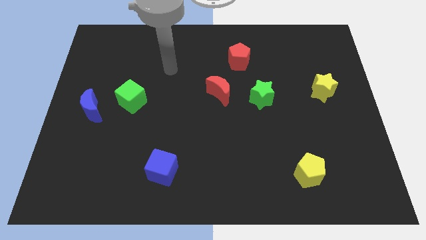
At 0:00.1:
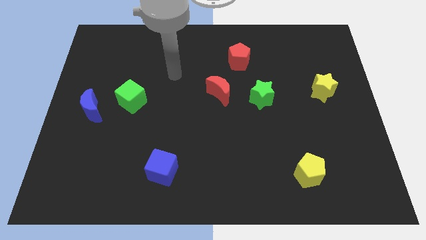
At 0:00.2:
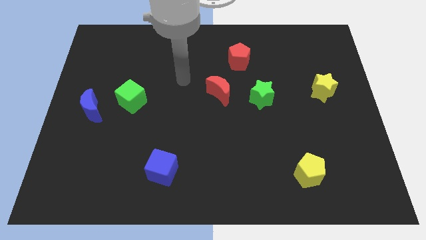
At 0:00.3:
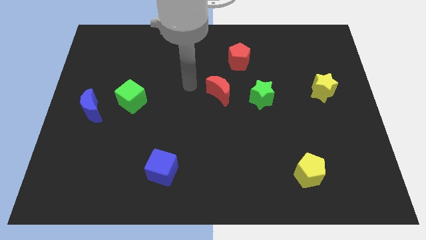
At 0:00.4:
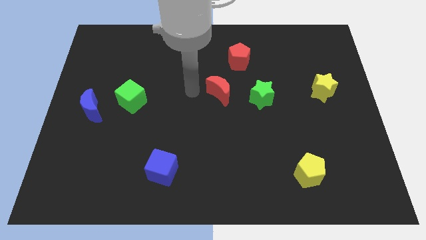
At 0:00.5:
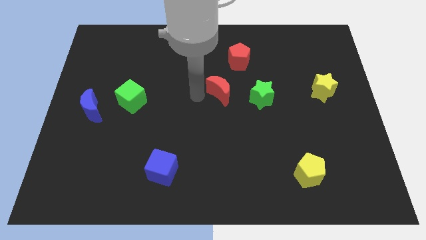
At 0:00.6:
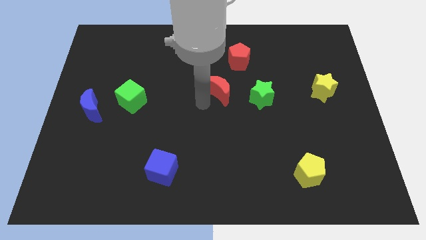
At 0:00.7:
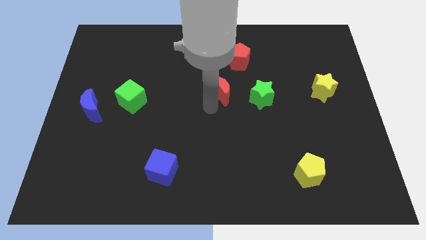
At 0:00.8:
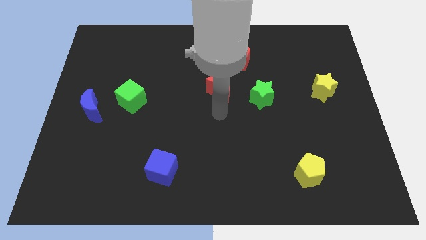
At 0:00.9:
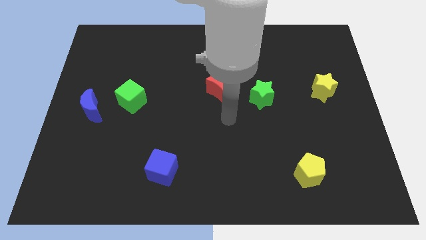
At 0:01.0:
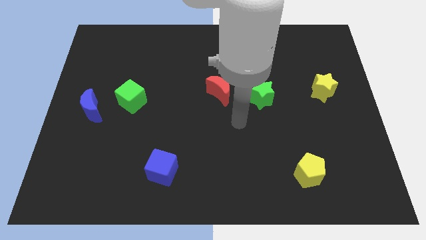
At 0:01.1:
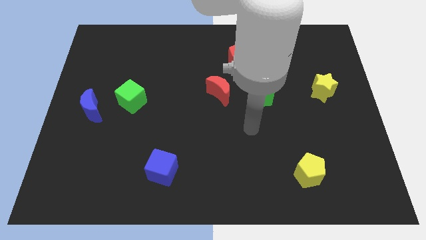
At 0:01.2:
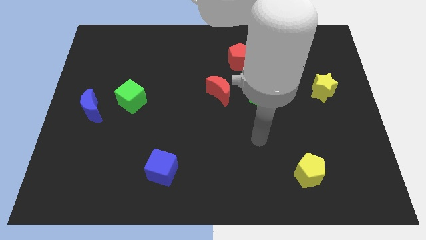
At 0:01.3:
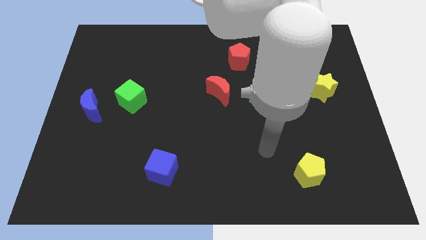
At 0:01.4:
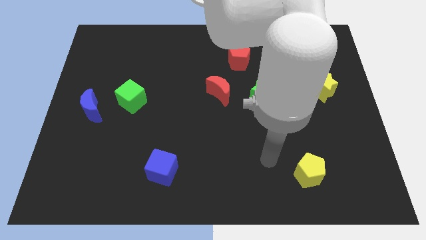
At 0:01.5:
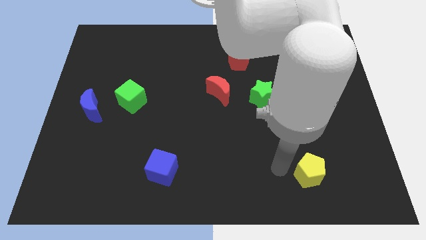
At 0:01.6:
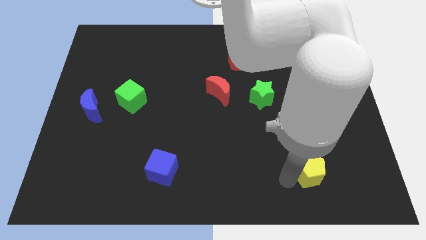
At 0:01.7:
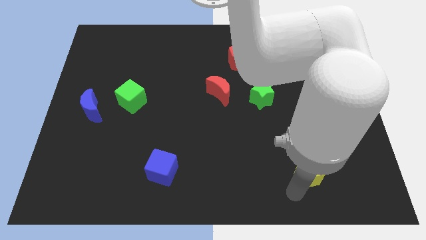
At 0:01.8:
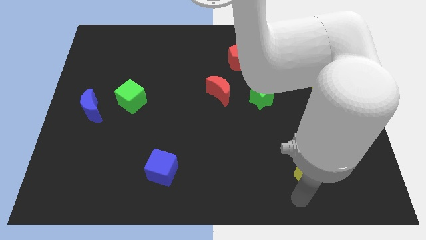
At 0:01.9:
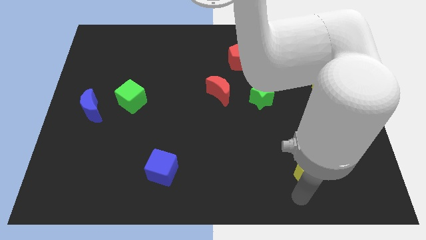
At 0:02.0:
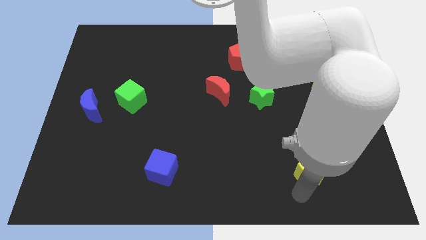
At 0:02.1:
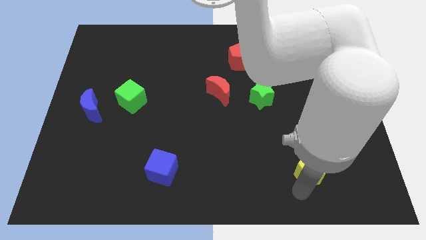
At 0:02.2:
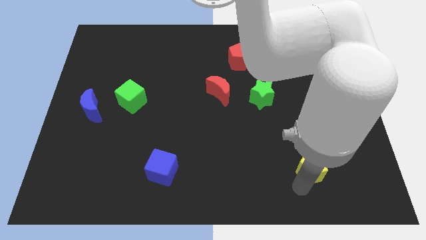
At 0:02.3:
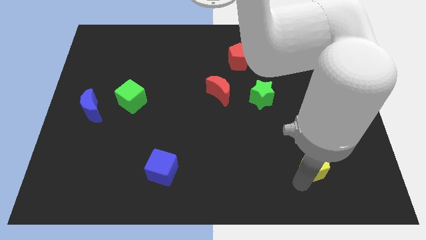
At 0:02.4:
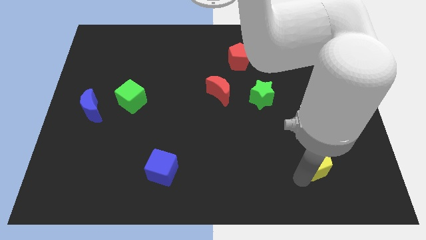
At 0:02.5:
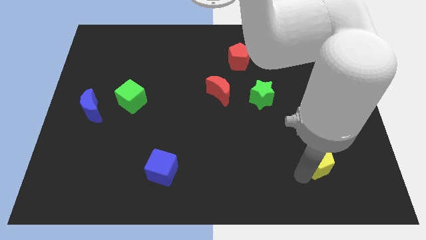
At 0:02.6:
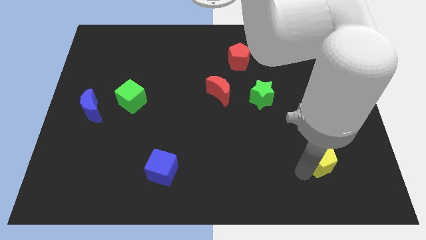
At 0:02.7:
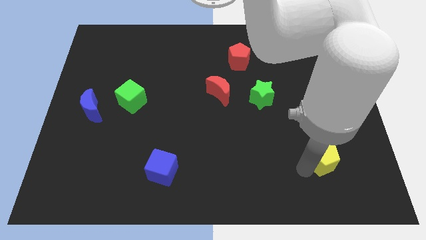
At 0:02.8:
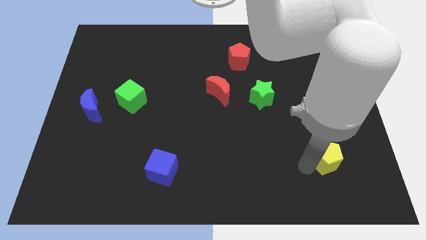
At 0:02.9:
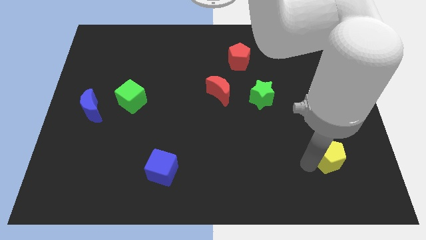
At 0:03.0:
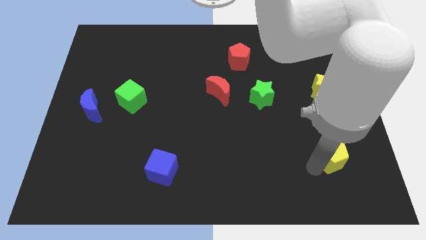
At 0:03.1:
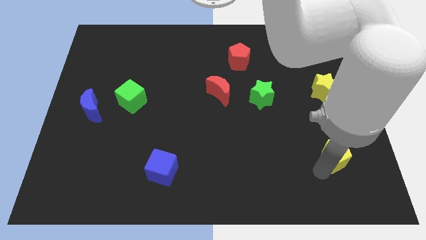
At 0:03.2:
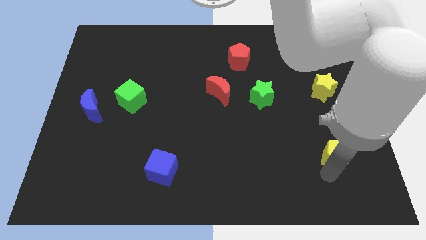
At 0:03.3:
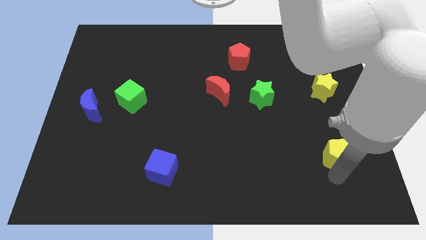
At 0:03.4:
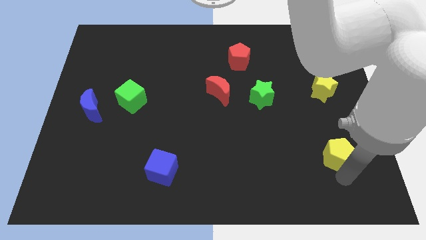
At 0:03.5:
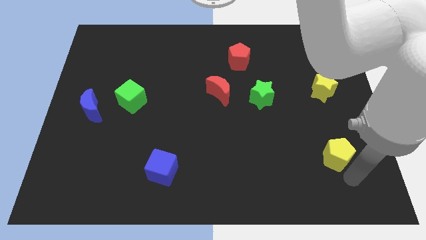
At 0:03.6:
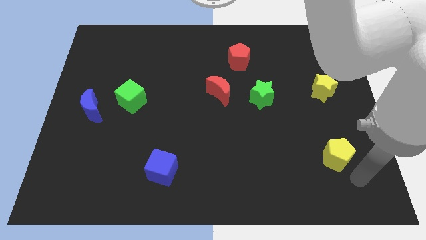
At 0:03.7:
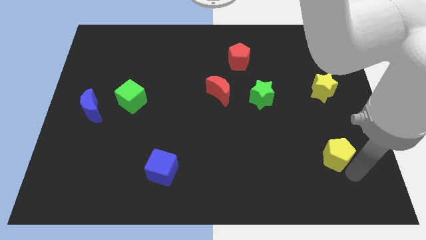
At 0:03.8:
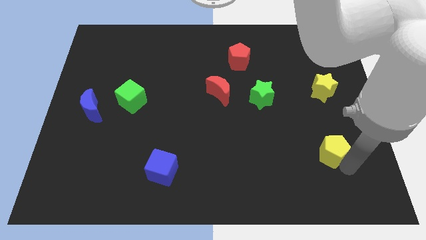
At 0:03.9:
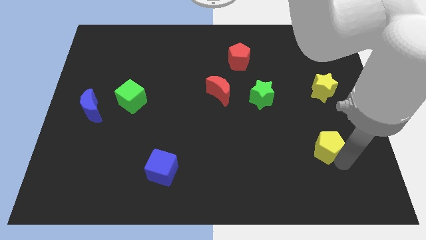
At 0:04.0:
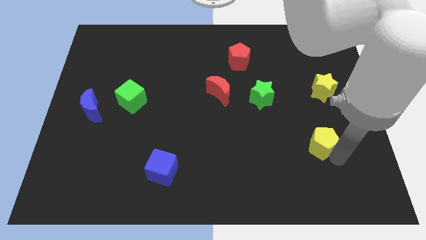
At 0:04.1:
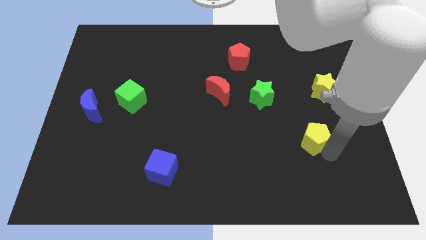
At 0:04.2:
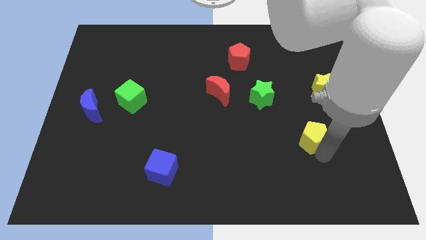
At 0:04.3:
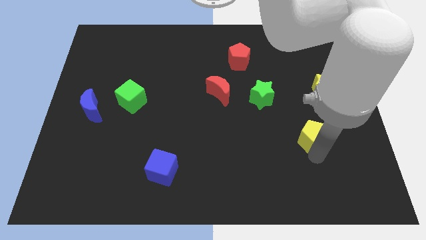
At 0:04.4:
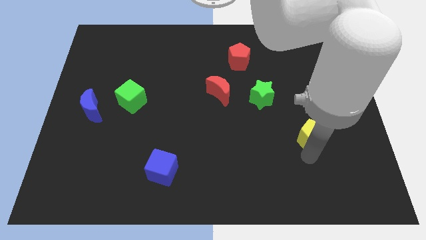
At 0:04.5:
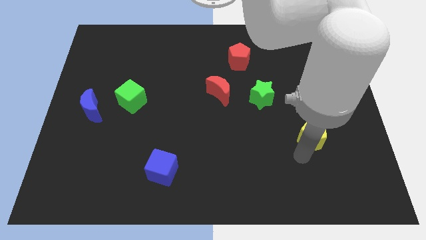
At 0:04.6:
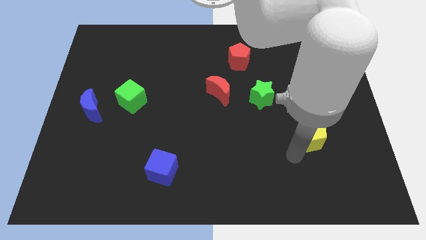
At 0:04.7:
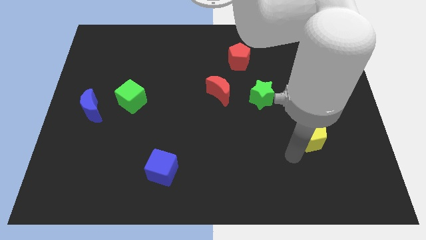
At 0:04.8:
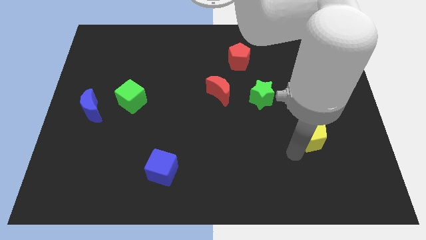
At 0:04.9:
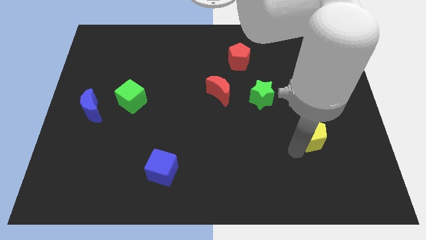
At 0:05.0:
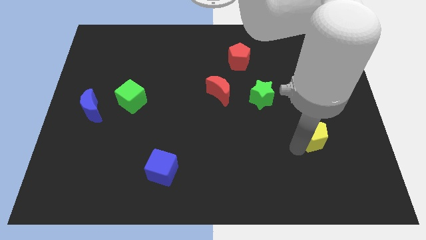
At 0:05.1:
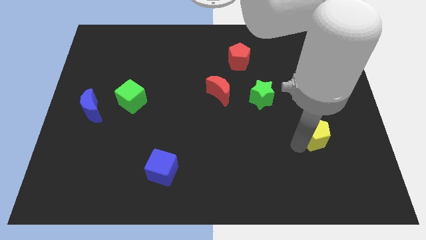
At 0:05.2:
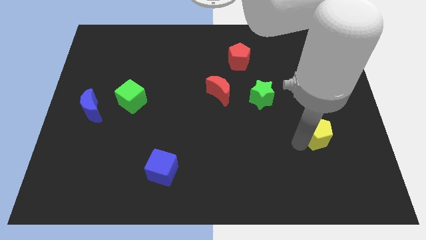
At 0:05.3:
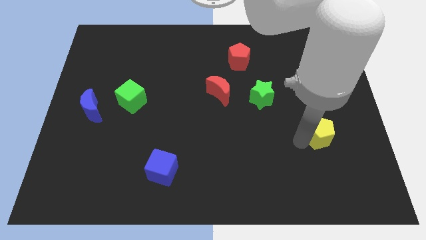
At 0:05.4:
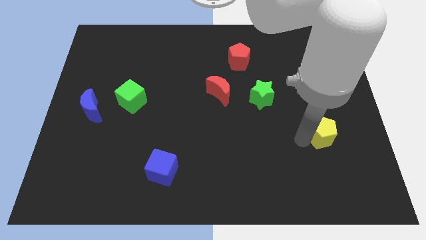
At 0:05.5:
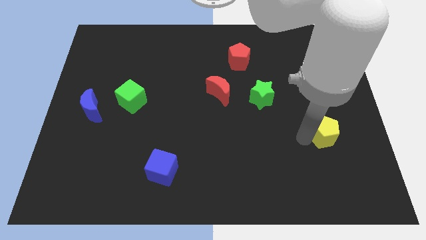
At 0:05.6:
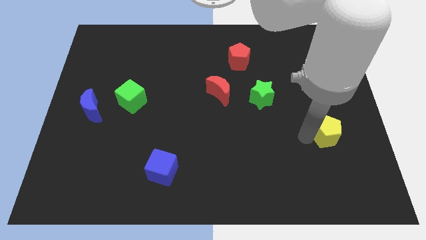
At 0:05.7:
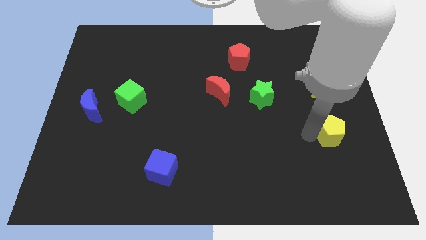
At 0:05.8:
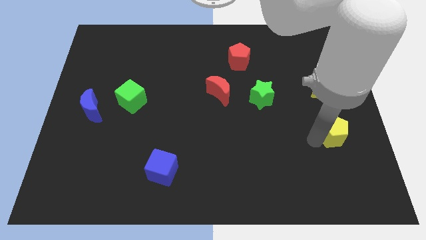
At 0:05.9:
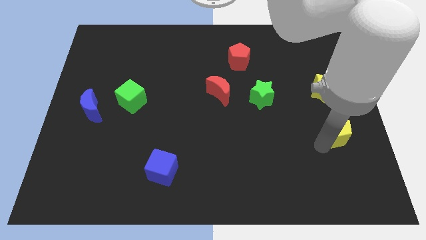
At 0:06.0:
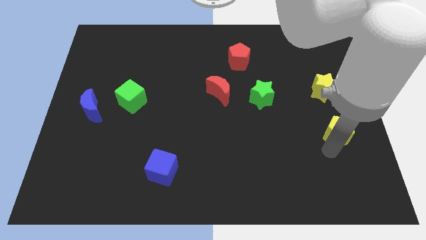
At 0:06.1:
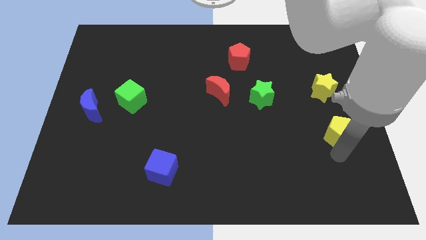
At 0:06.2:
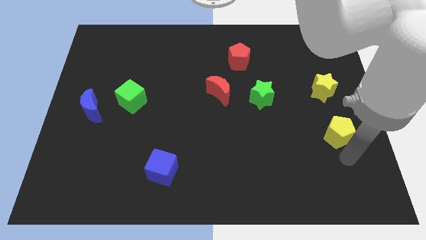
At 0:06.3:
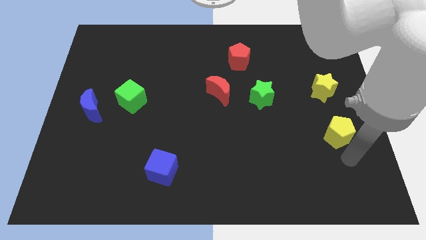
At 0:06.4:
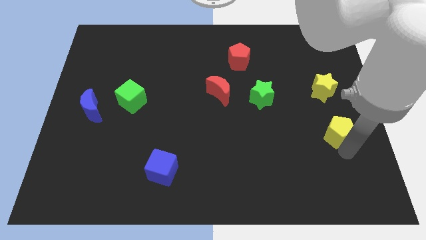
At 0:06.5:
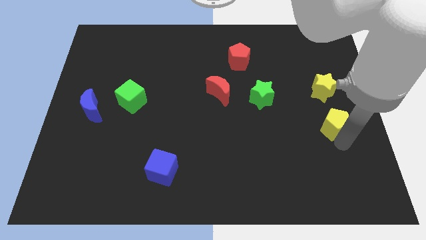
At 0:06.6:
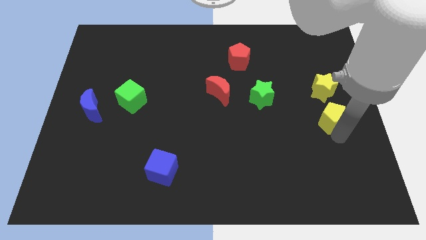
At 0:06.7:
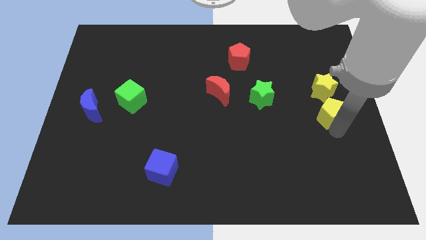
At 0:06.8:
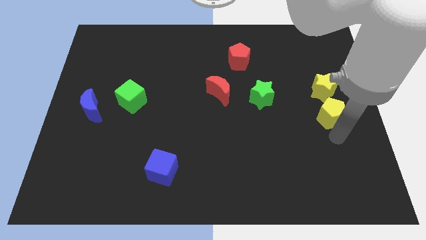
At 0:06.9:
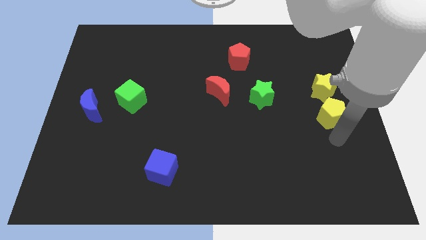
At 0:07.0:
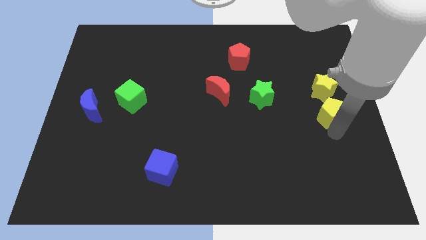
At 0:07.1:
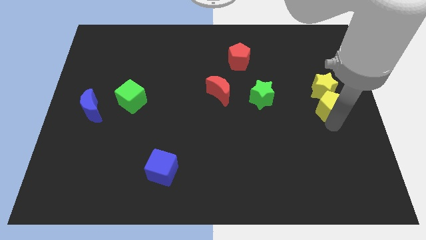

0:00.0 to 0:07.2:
push the yellow pentagon towards the yellow star

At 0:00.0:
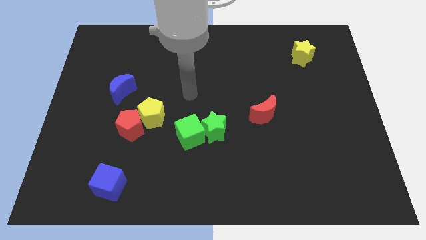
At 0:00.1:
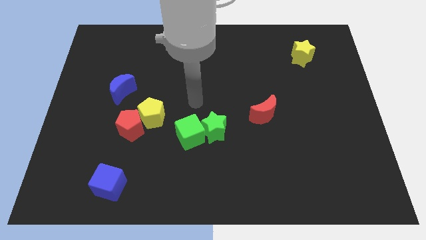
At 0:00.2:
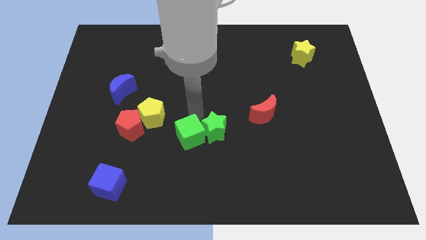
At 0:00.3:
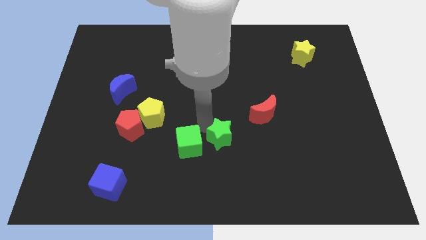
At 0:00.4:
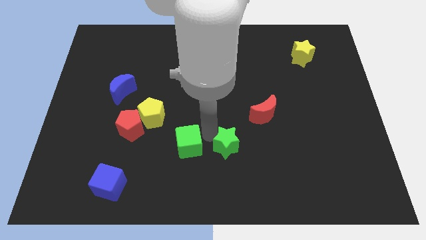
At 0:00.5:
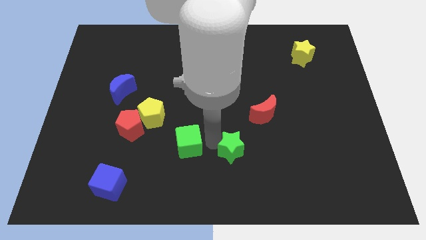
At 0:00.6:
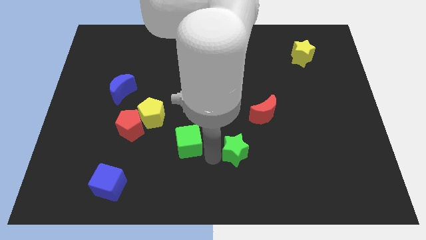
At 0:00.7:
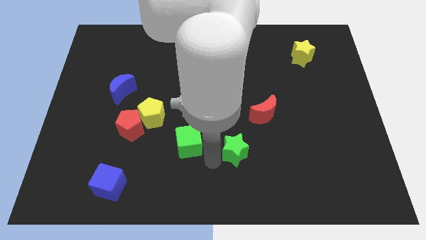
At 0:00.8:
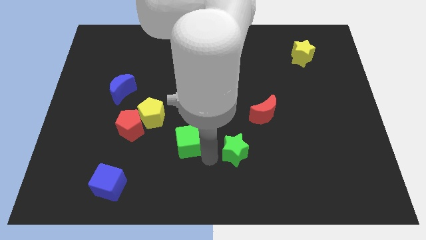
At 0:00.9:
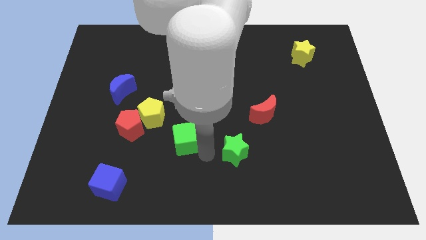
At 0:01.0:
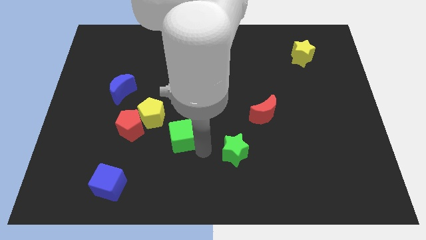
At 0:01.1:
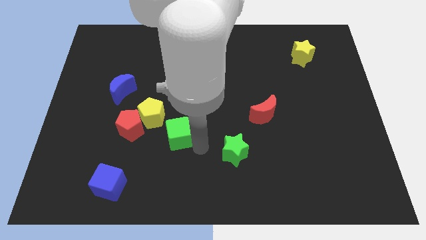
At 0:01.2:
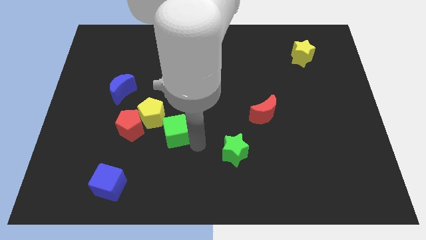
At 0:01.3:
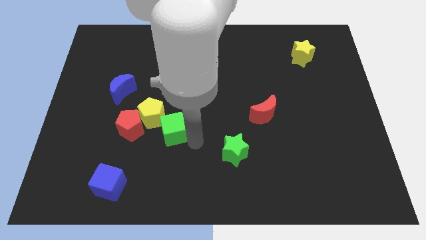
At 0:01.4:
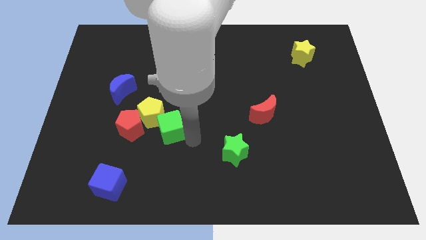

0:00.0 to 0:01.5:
slide the green cube close to the yellow pentagon
